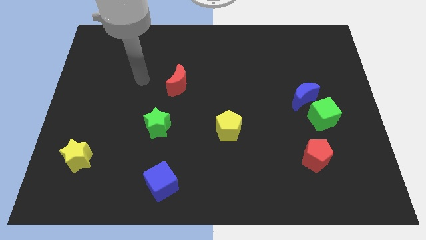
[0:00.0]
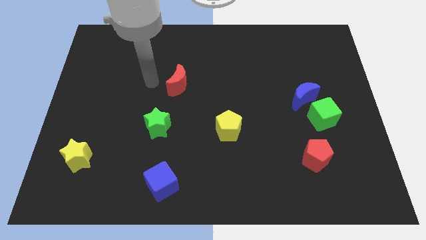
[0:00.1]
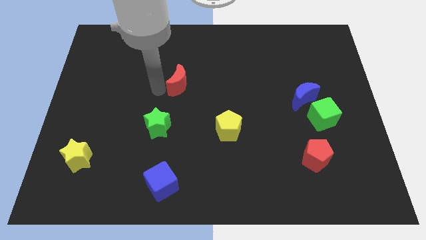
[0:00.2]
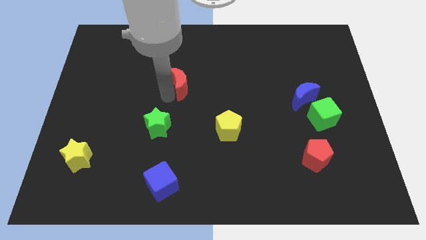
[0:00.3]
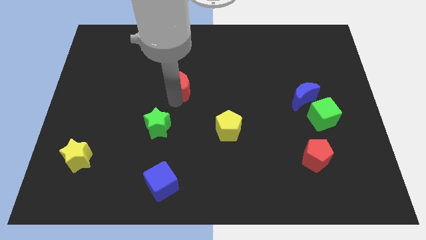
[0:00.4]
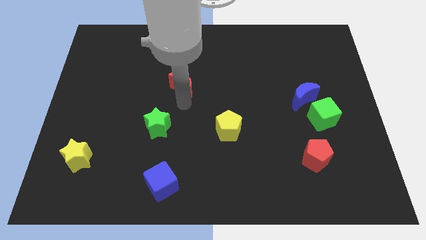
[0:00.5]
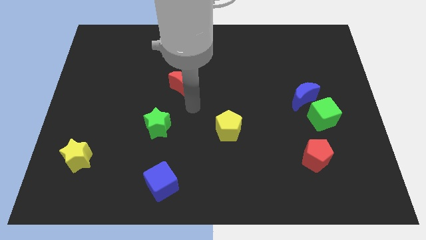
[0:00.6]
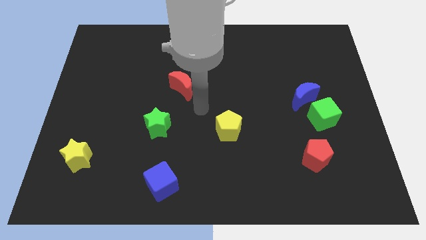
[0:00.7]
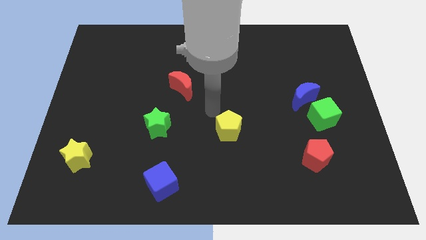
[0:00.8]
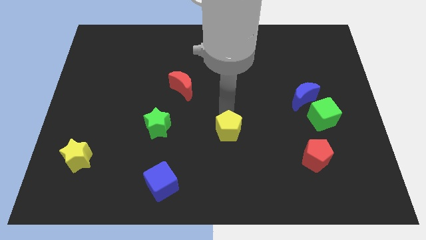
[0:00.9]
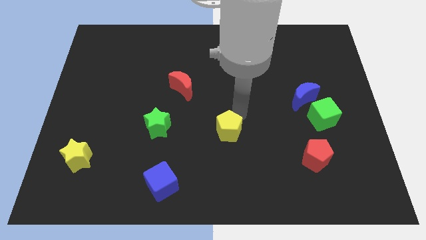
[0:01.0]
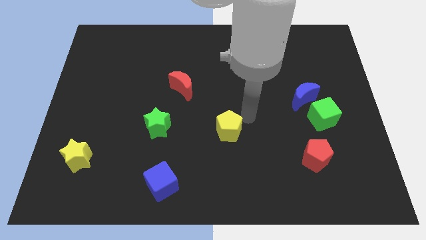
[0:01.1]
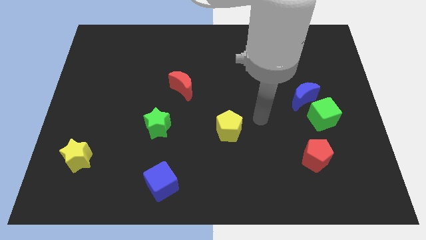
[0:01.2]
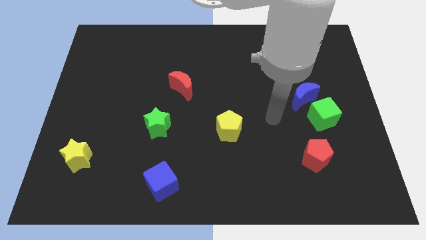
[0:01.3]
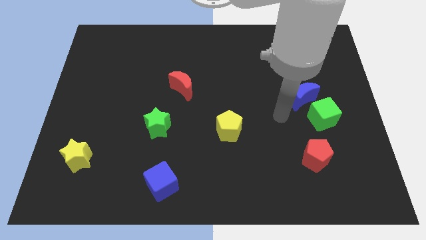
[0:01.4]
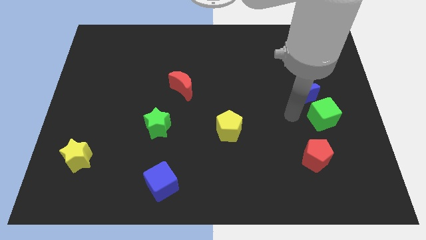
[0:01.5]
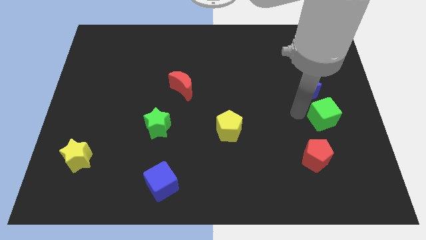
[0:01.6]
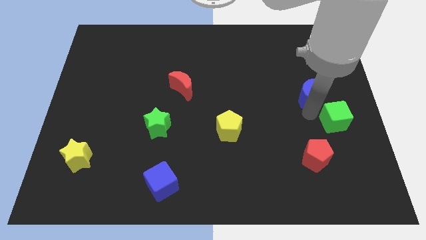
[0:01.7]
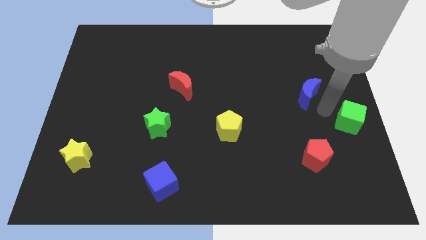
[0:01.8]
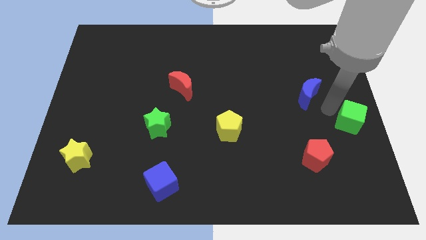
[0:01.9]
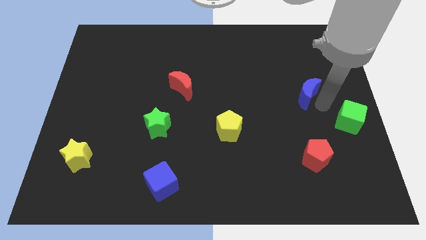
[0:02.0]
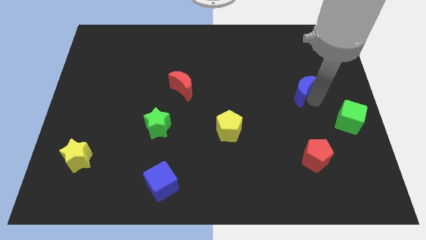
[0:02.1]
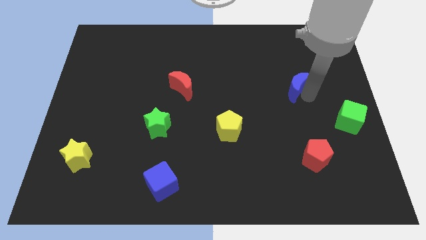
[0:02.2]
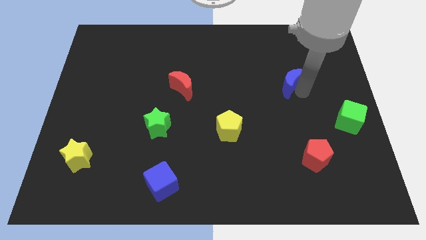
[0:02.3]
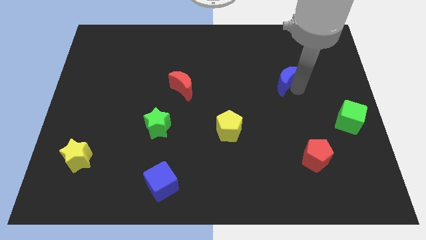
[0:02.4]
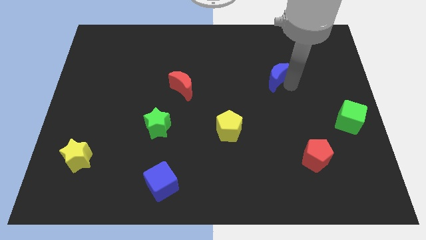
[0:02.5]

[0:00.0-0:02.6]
slightly slide the blue moon upwards and left diagonally

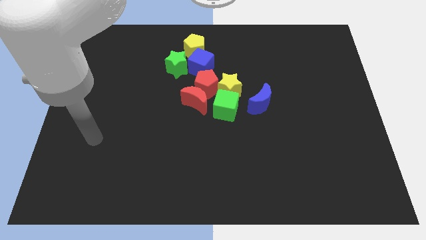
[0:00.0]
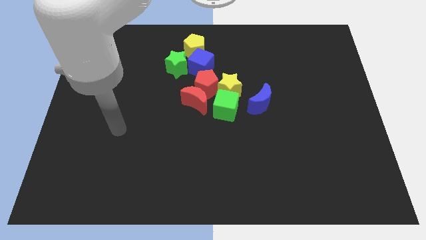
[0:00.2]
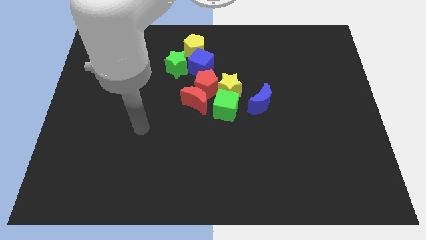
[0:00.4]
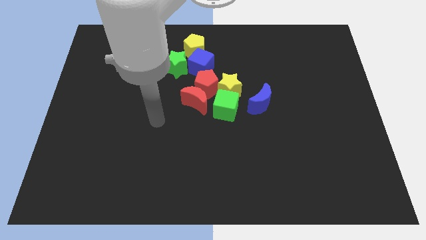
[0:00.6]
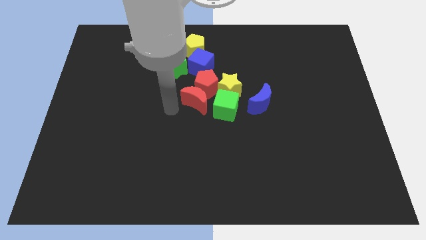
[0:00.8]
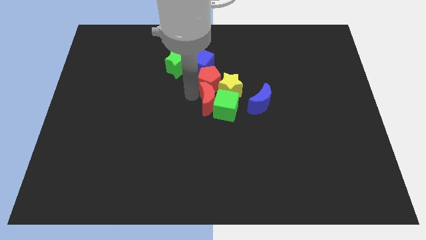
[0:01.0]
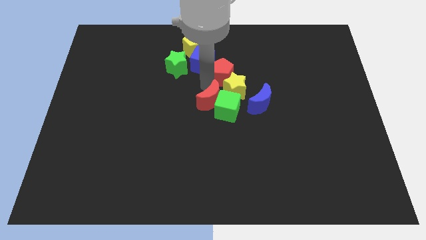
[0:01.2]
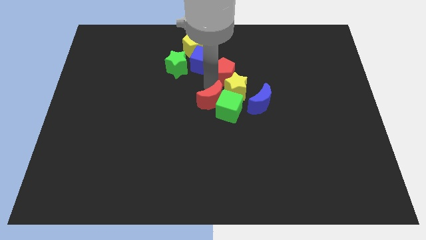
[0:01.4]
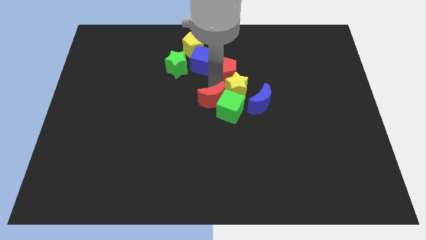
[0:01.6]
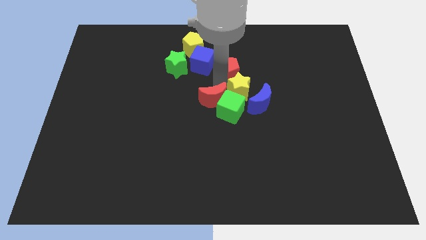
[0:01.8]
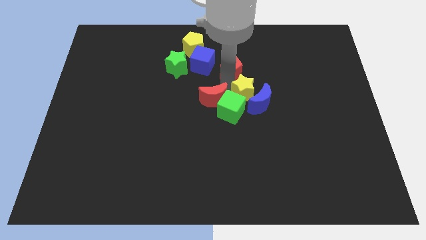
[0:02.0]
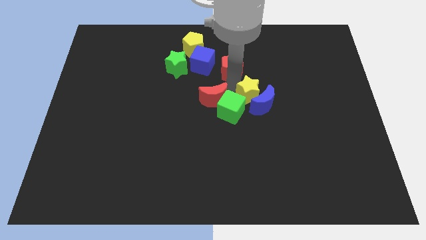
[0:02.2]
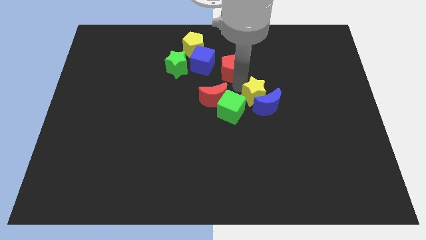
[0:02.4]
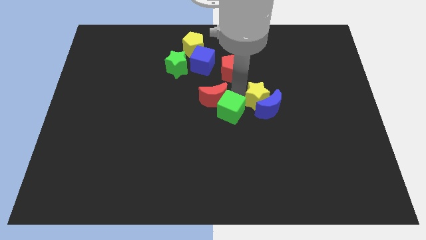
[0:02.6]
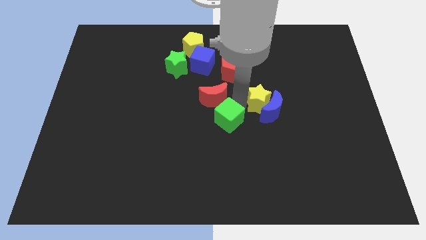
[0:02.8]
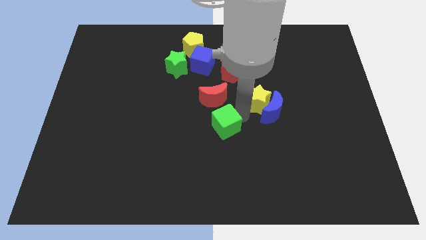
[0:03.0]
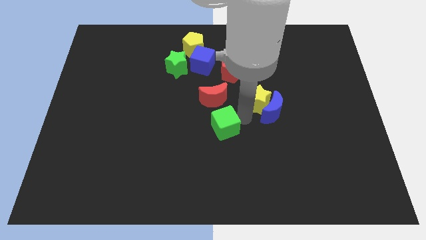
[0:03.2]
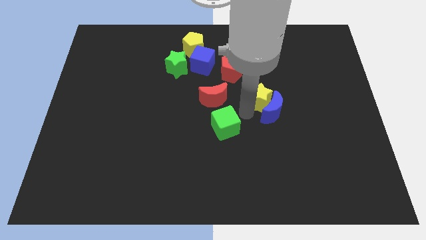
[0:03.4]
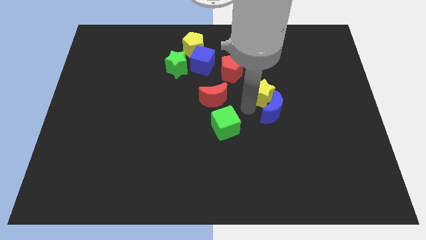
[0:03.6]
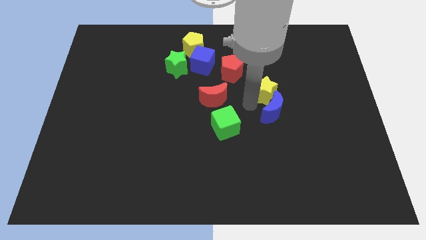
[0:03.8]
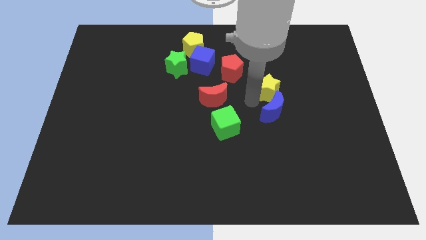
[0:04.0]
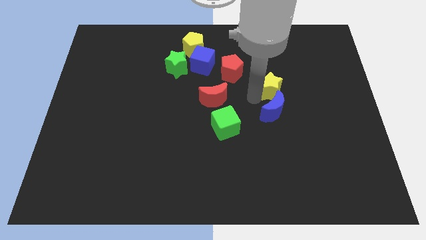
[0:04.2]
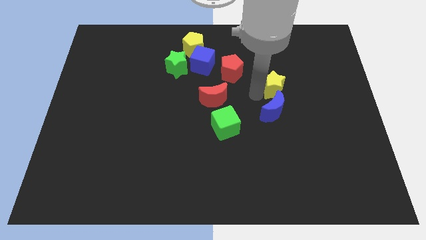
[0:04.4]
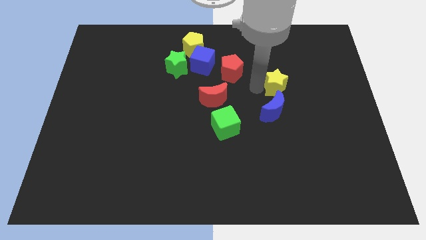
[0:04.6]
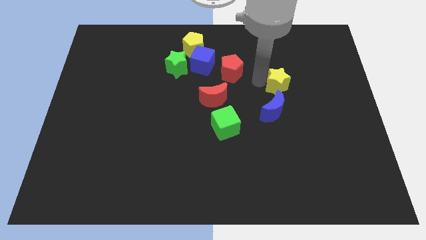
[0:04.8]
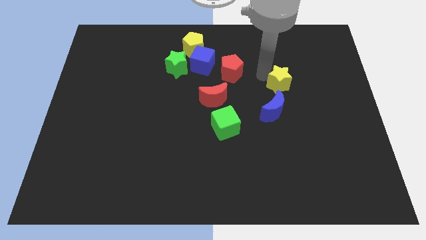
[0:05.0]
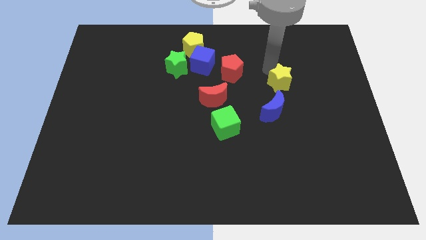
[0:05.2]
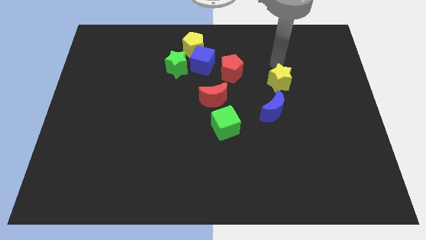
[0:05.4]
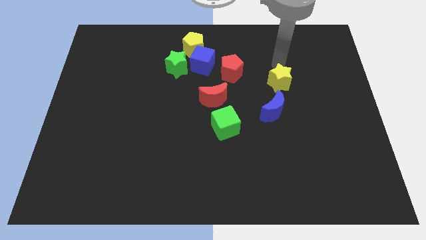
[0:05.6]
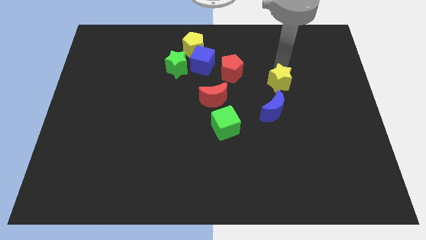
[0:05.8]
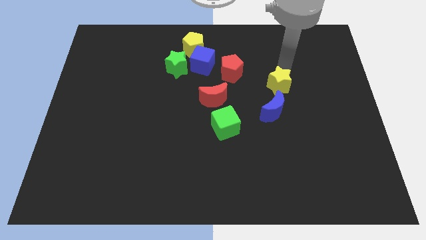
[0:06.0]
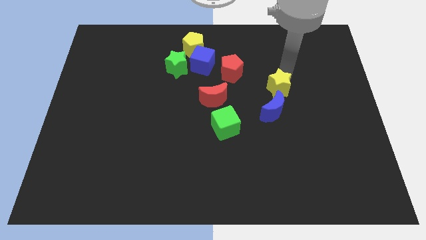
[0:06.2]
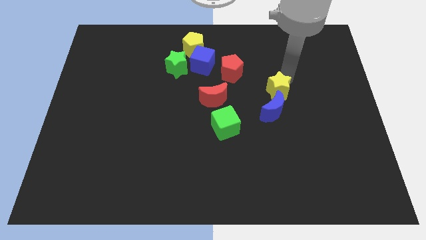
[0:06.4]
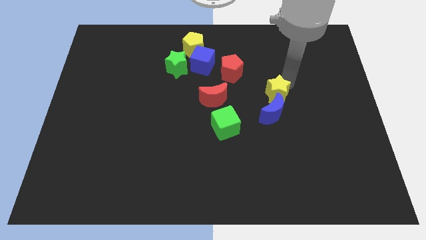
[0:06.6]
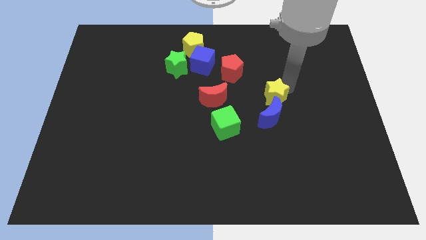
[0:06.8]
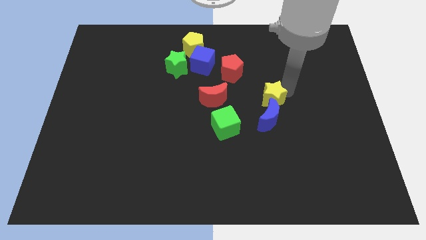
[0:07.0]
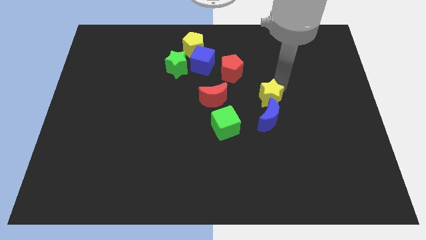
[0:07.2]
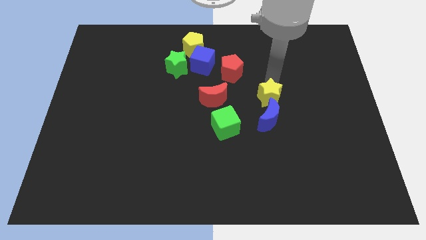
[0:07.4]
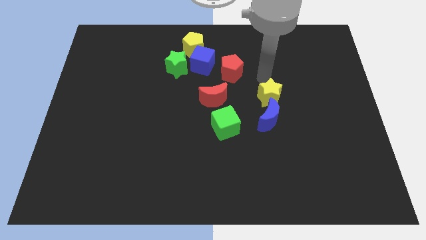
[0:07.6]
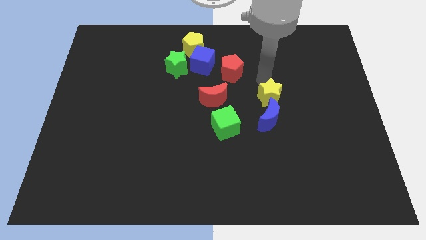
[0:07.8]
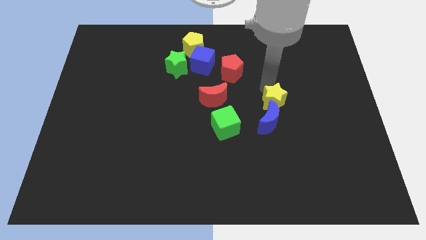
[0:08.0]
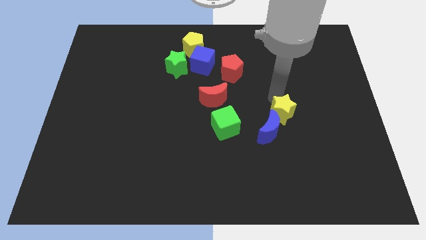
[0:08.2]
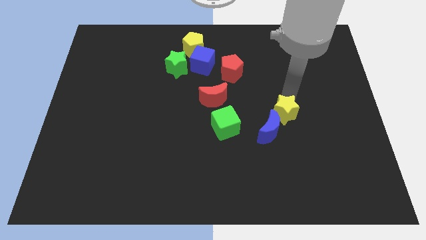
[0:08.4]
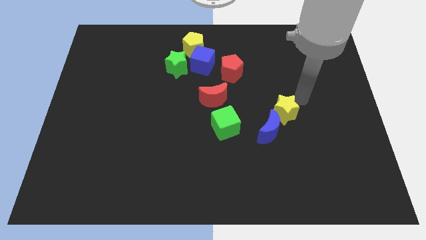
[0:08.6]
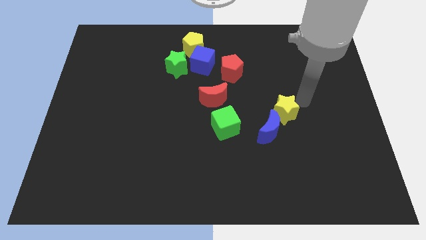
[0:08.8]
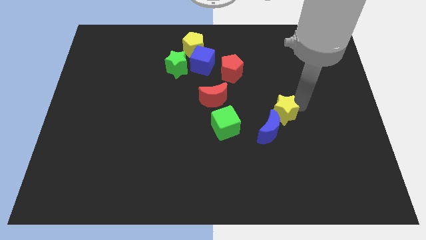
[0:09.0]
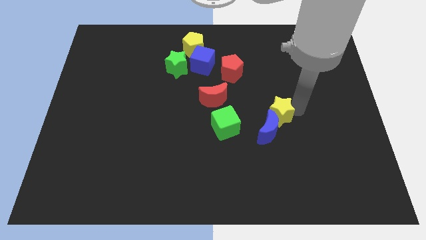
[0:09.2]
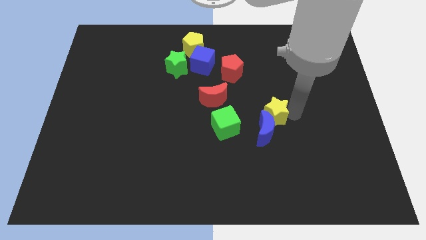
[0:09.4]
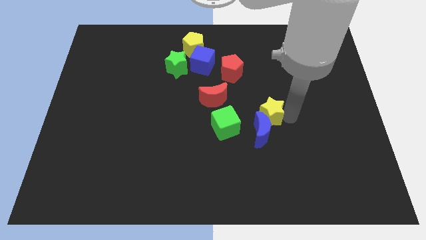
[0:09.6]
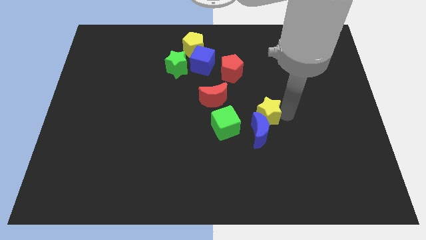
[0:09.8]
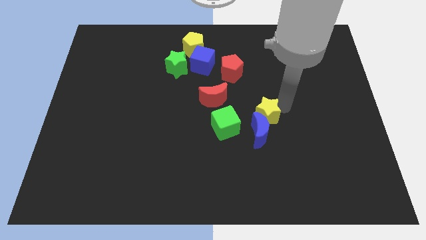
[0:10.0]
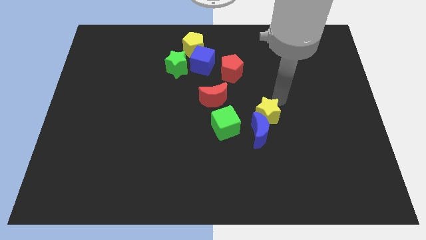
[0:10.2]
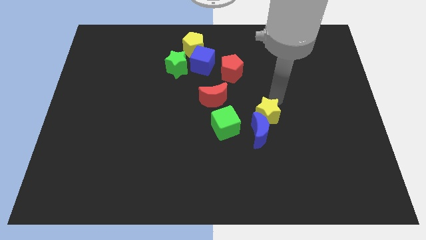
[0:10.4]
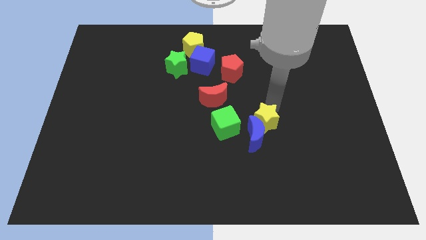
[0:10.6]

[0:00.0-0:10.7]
push the yellow star somewhat down

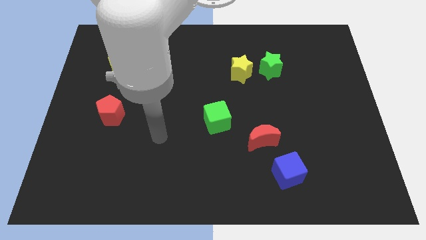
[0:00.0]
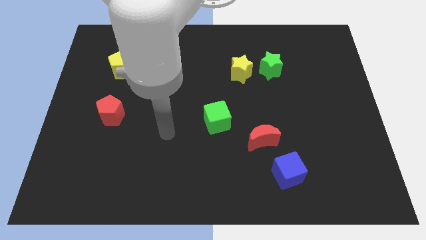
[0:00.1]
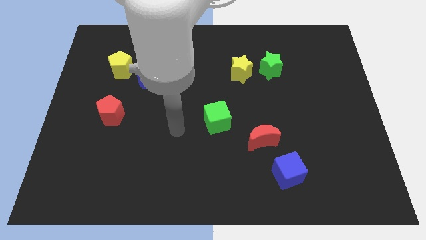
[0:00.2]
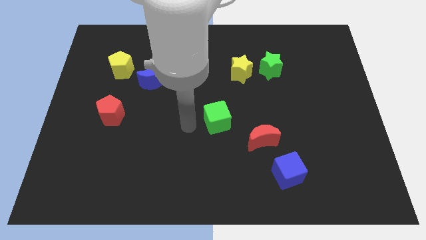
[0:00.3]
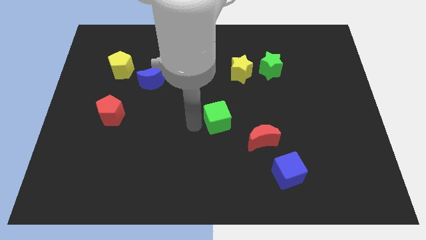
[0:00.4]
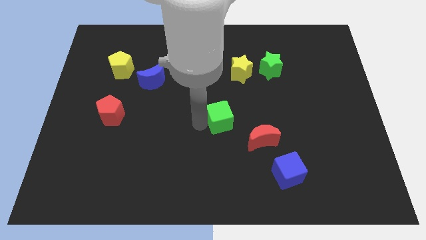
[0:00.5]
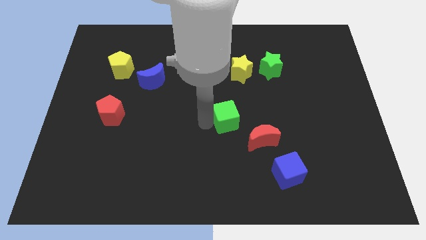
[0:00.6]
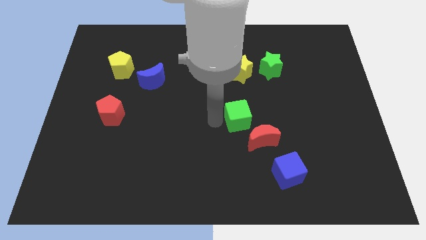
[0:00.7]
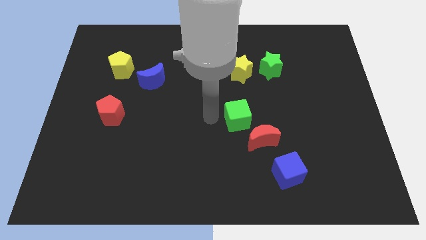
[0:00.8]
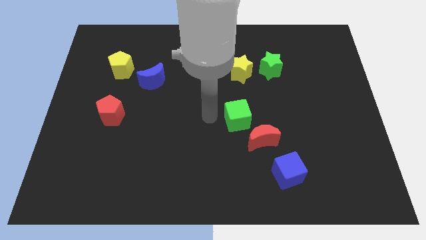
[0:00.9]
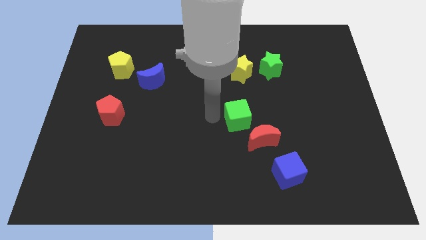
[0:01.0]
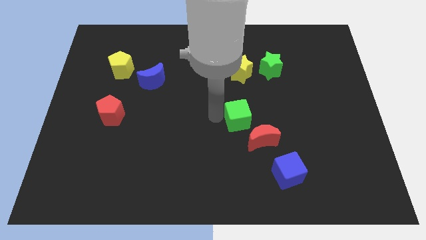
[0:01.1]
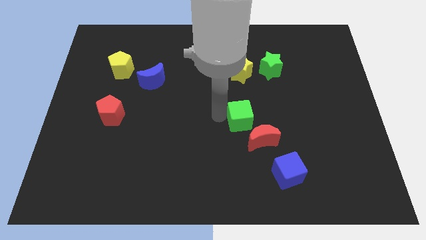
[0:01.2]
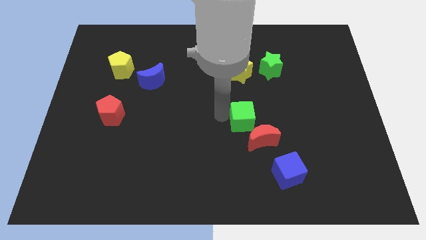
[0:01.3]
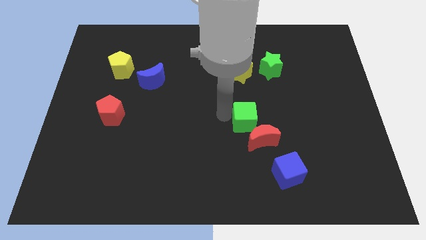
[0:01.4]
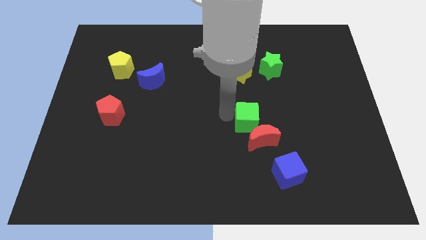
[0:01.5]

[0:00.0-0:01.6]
slide the green cube a bit right
